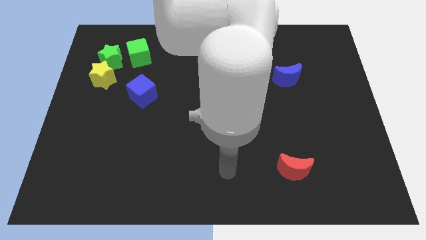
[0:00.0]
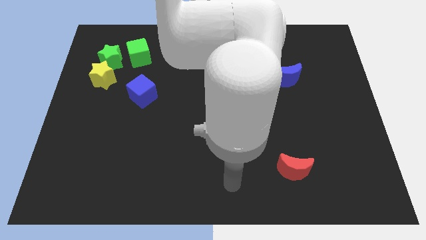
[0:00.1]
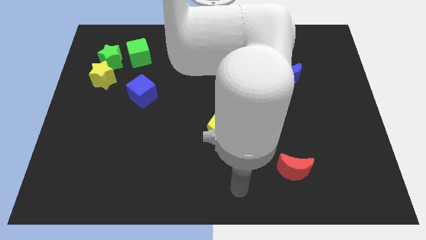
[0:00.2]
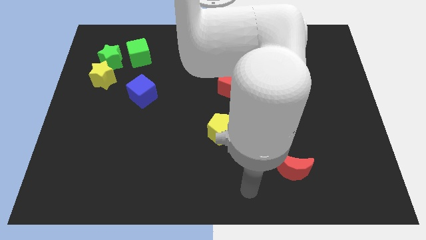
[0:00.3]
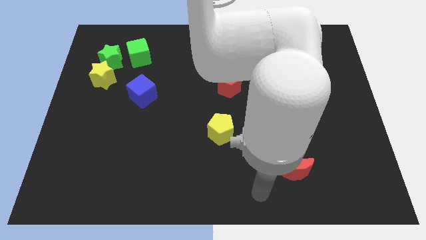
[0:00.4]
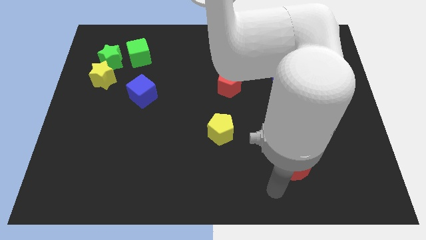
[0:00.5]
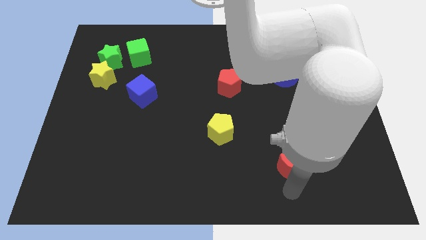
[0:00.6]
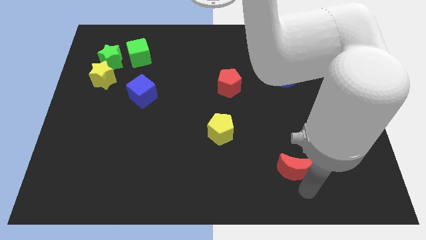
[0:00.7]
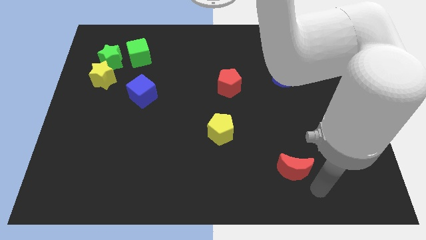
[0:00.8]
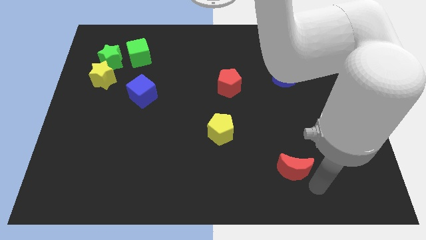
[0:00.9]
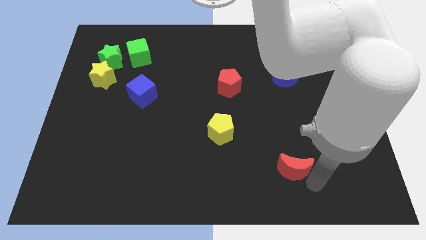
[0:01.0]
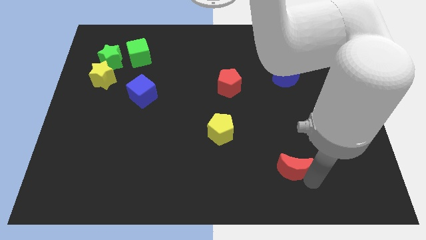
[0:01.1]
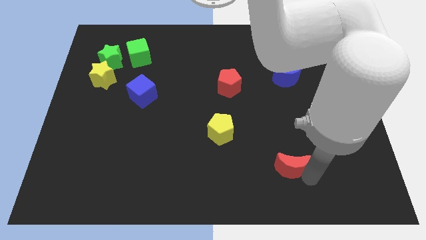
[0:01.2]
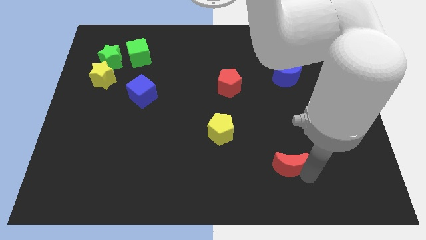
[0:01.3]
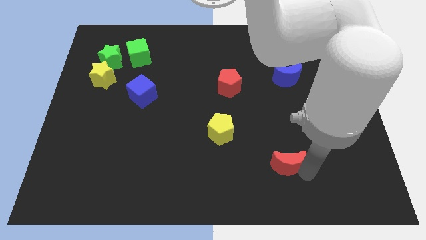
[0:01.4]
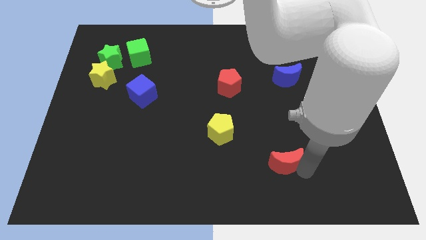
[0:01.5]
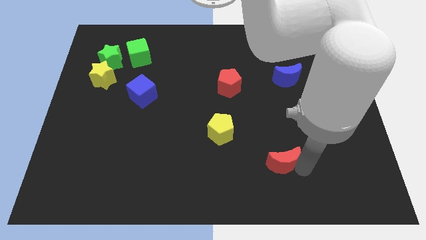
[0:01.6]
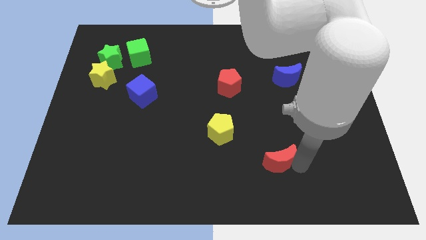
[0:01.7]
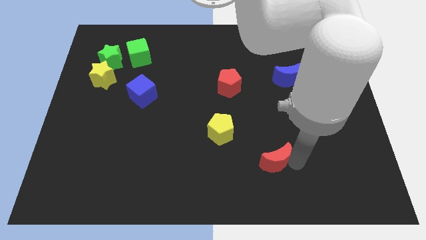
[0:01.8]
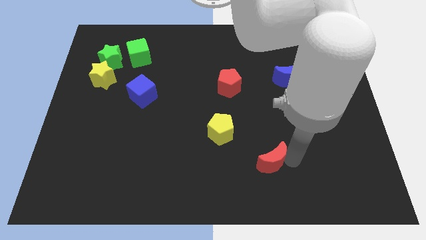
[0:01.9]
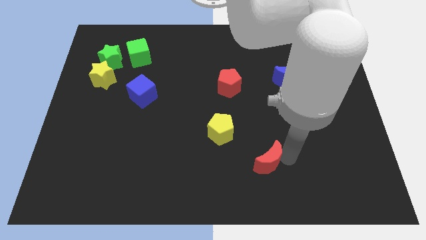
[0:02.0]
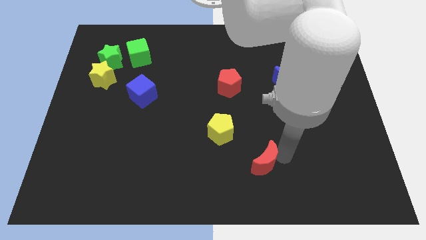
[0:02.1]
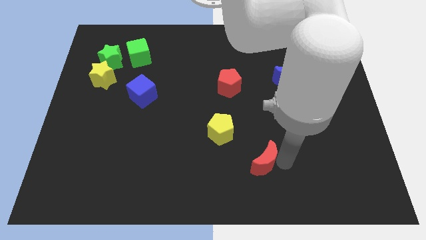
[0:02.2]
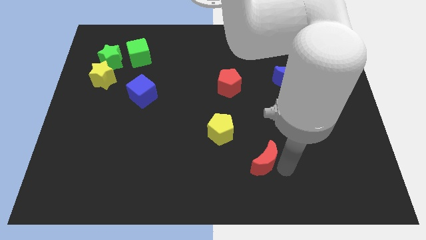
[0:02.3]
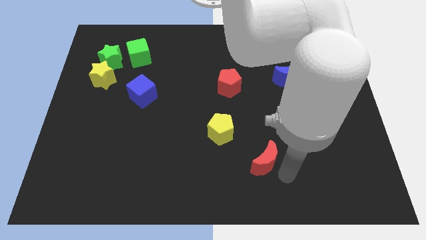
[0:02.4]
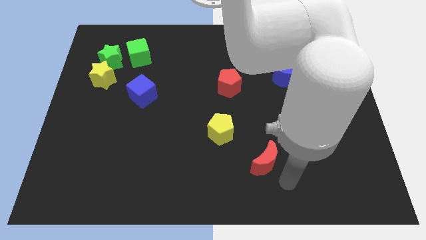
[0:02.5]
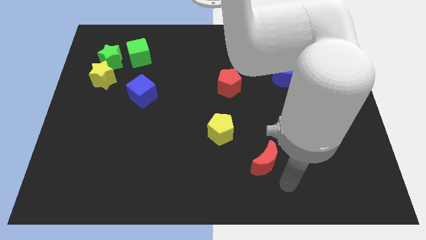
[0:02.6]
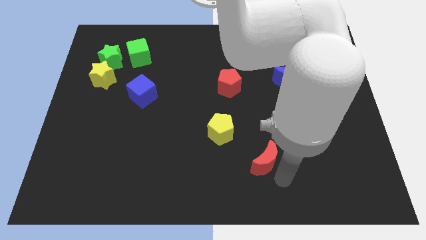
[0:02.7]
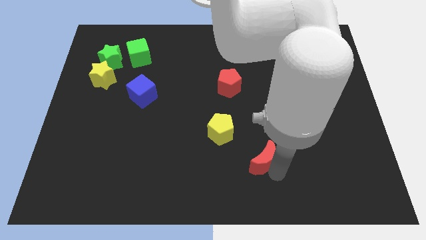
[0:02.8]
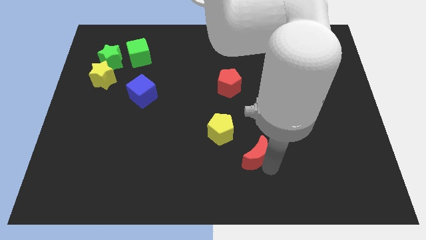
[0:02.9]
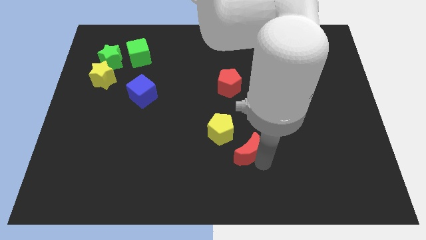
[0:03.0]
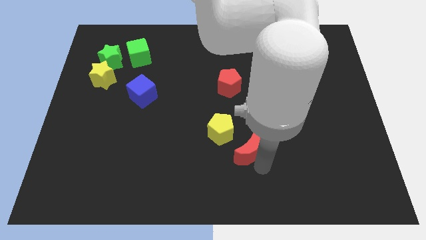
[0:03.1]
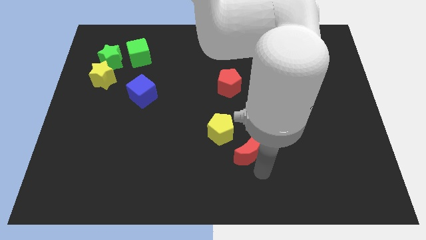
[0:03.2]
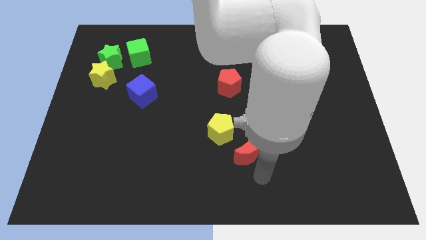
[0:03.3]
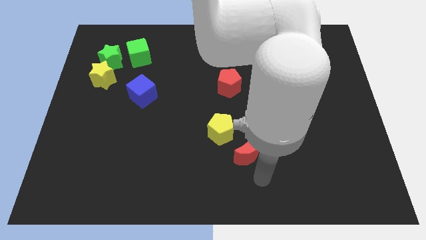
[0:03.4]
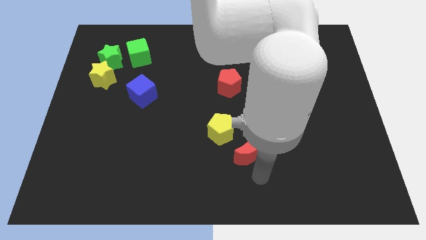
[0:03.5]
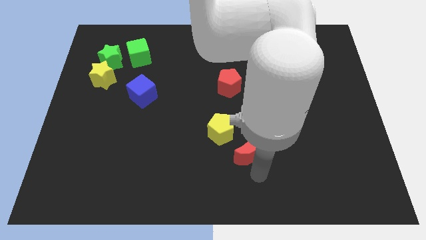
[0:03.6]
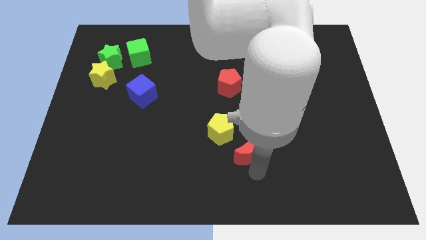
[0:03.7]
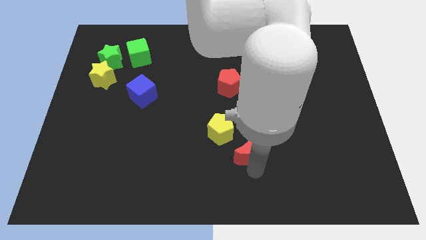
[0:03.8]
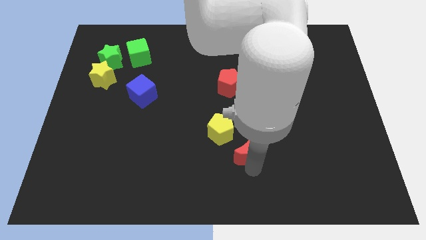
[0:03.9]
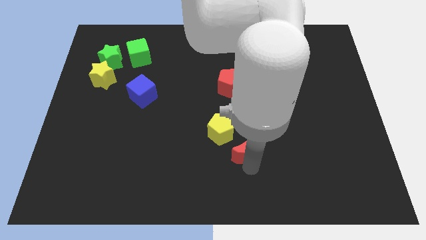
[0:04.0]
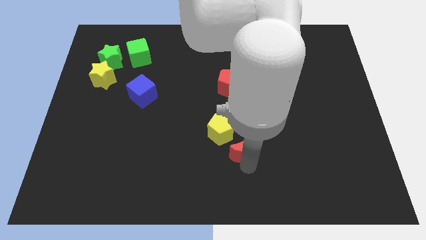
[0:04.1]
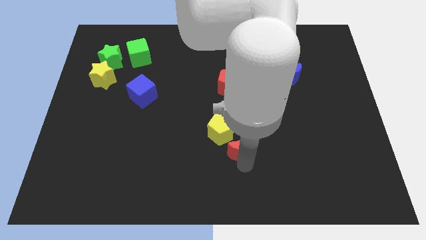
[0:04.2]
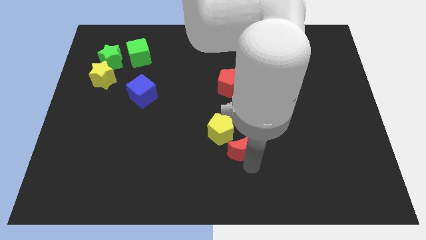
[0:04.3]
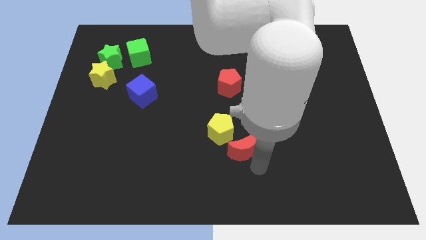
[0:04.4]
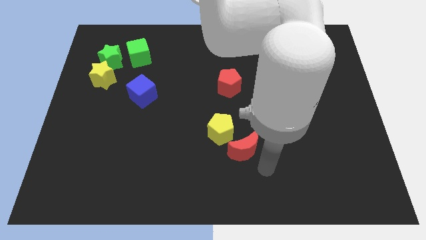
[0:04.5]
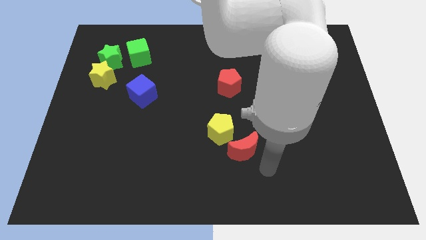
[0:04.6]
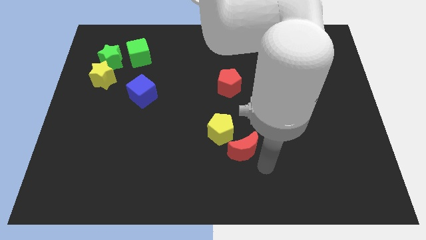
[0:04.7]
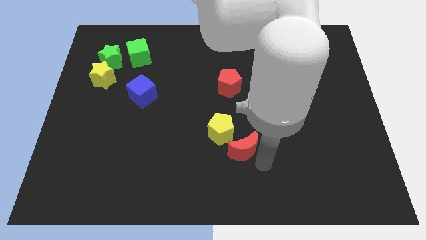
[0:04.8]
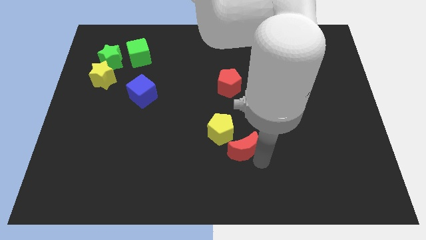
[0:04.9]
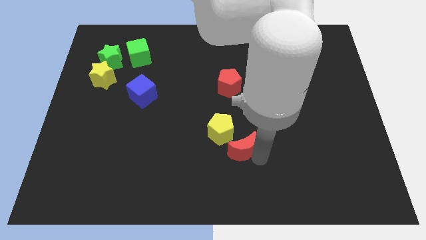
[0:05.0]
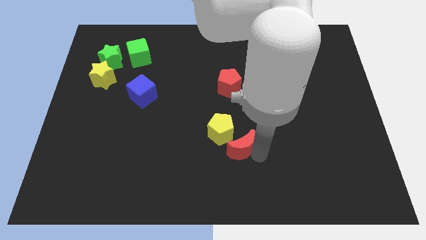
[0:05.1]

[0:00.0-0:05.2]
put the red moon to the yellow pentagon

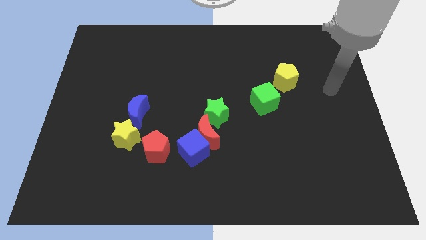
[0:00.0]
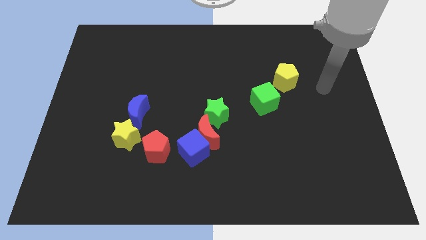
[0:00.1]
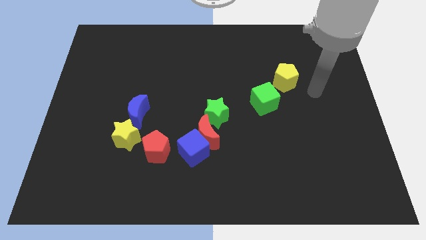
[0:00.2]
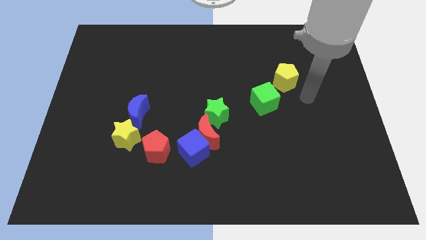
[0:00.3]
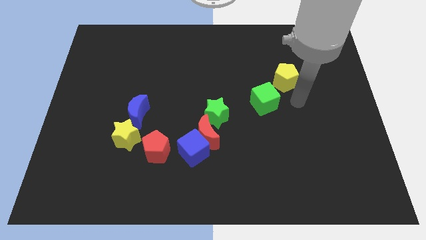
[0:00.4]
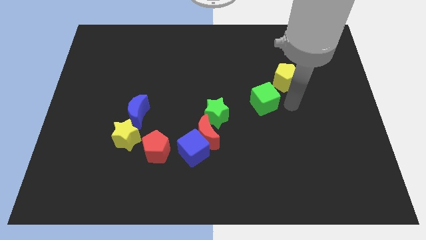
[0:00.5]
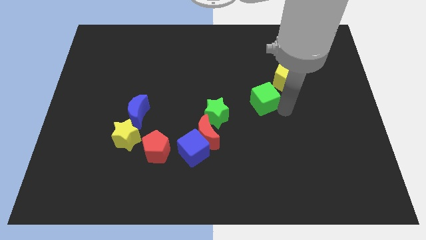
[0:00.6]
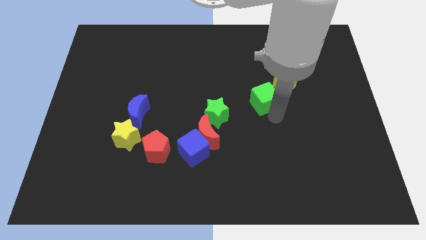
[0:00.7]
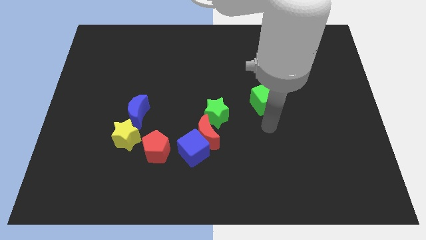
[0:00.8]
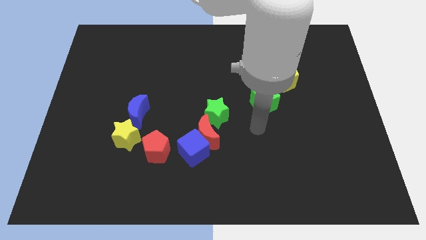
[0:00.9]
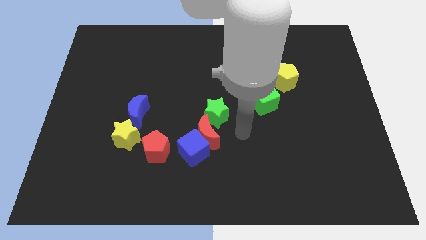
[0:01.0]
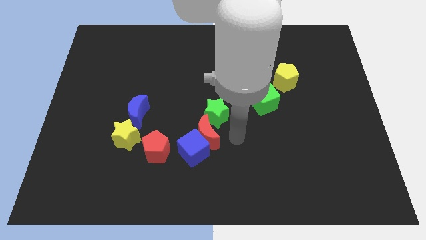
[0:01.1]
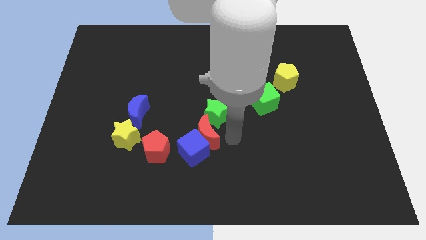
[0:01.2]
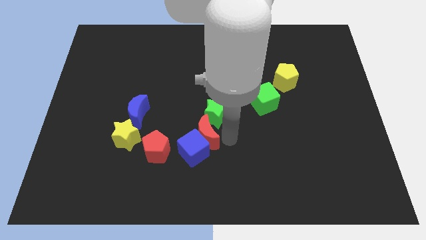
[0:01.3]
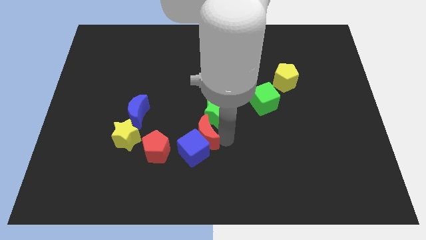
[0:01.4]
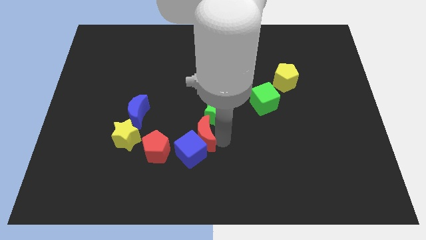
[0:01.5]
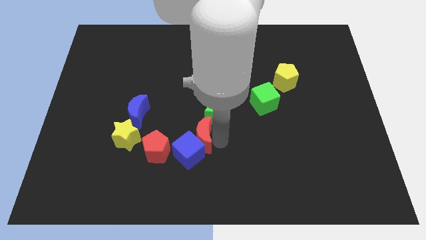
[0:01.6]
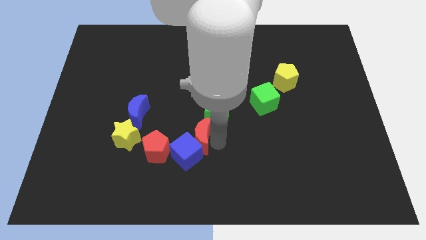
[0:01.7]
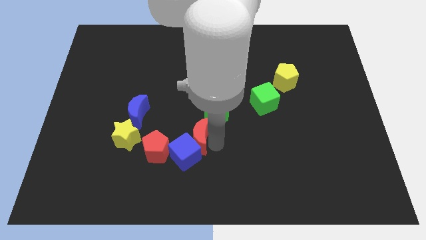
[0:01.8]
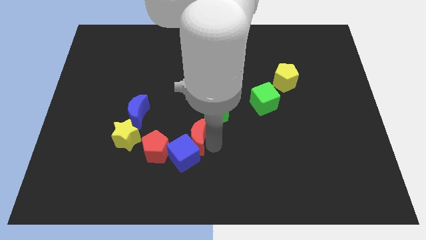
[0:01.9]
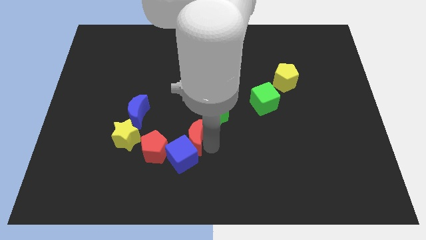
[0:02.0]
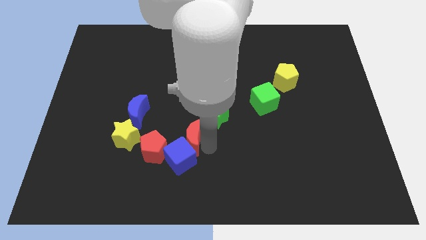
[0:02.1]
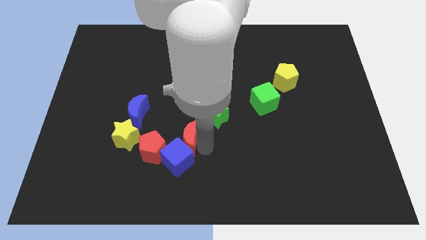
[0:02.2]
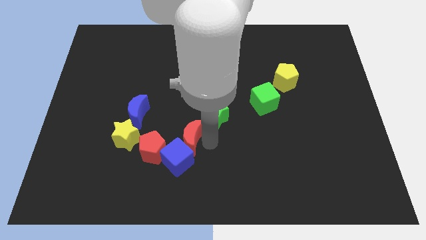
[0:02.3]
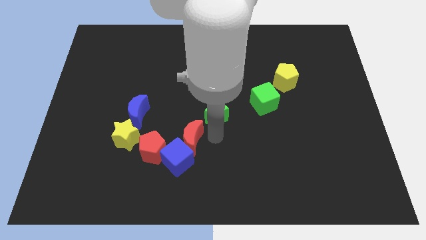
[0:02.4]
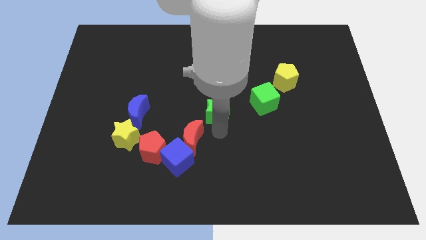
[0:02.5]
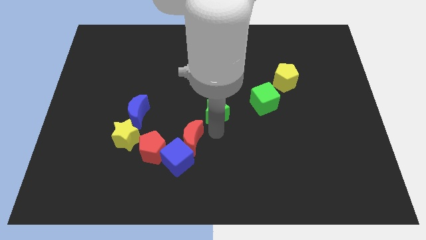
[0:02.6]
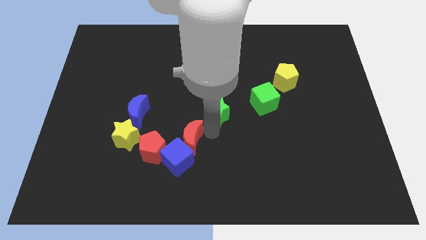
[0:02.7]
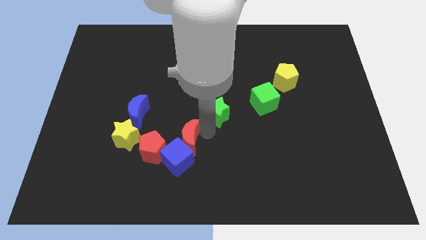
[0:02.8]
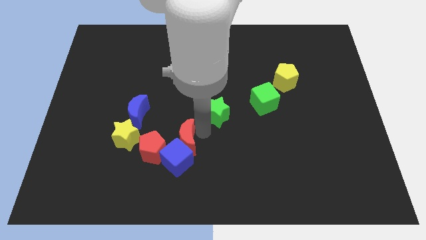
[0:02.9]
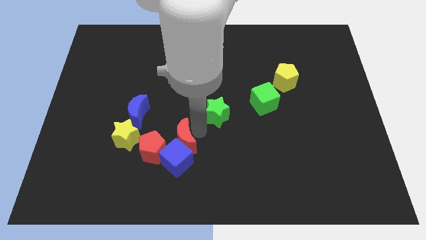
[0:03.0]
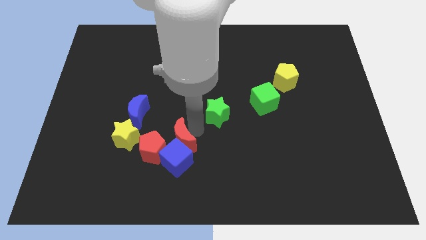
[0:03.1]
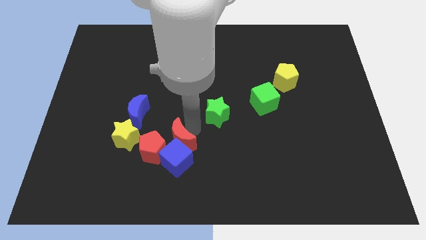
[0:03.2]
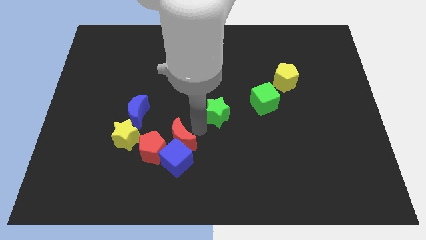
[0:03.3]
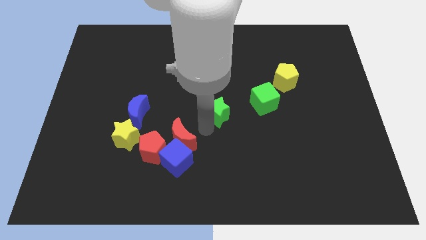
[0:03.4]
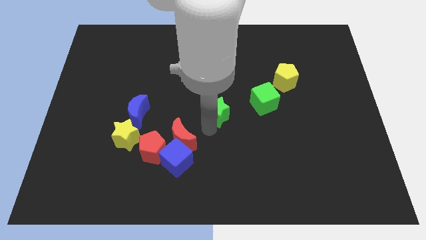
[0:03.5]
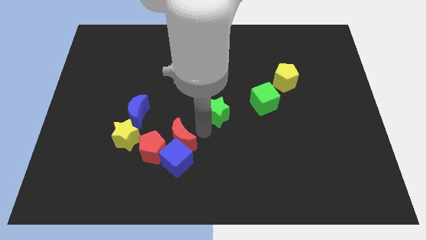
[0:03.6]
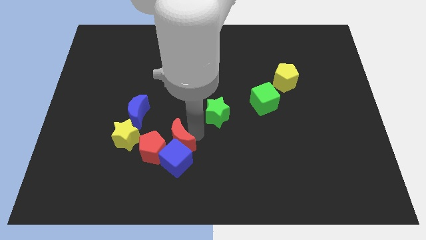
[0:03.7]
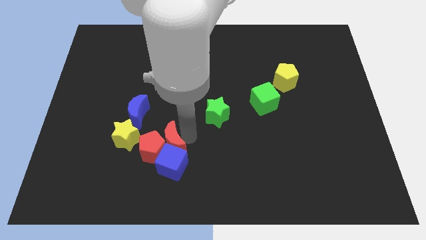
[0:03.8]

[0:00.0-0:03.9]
move the red moon next to the red pentagon
